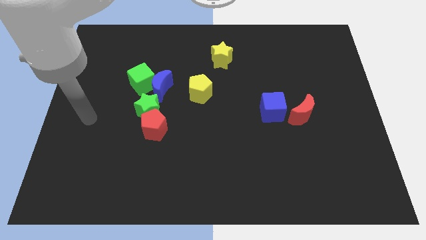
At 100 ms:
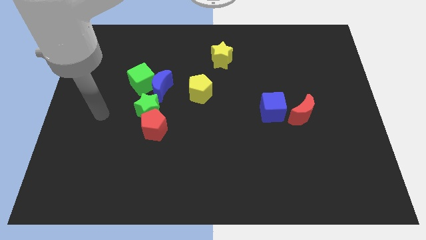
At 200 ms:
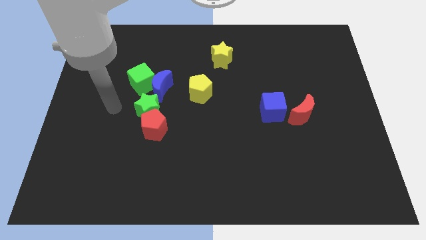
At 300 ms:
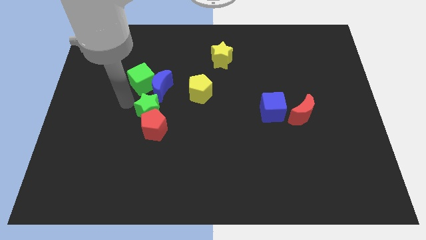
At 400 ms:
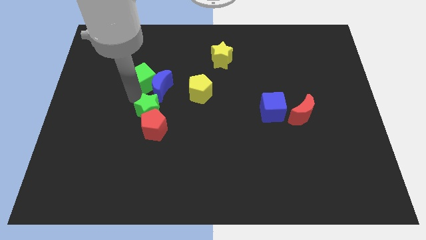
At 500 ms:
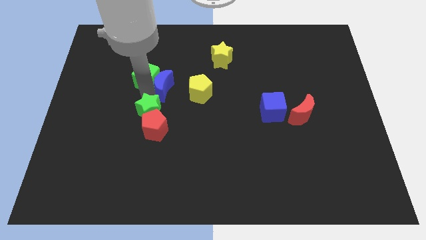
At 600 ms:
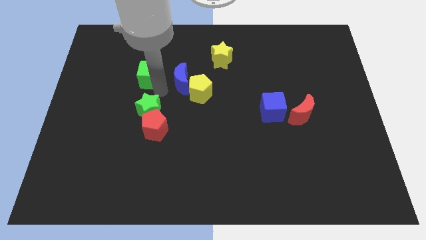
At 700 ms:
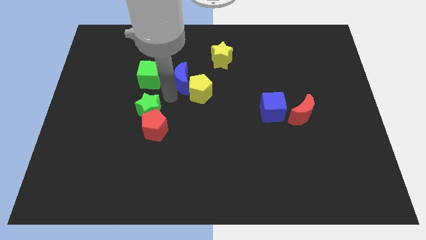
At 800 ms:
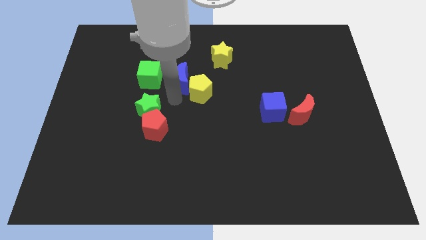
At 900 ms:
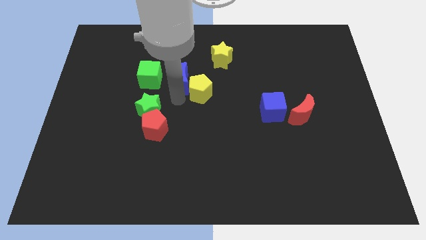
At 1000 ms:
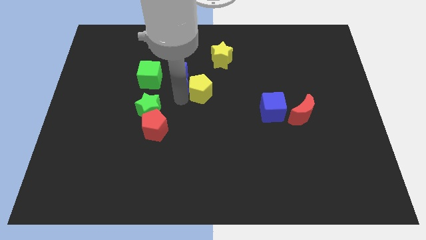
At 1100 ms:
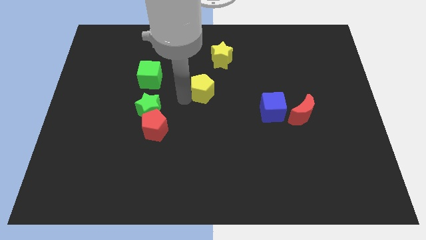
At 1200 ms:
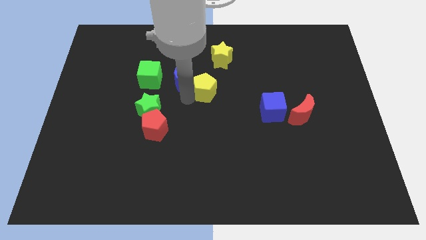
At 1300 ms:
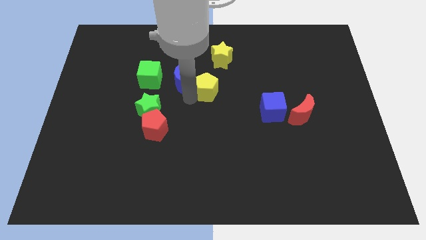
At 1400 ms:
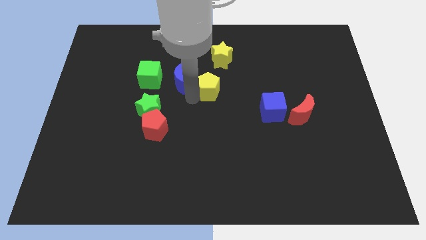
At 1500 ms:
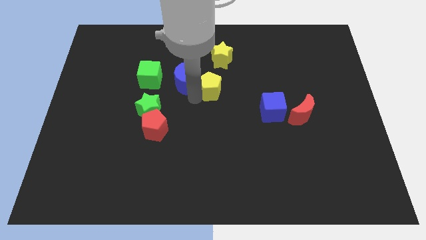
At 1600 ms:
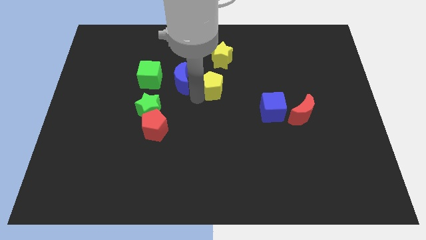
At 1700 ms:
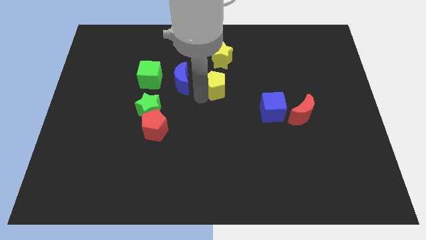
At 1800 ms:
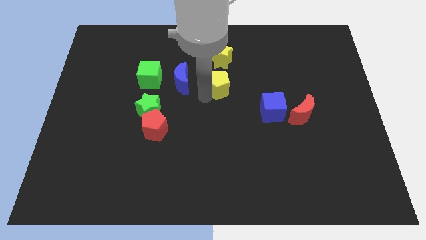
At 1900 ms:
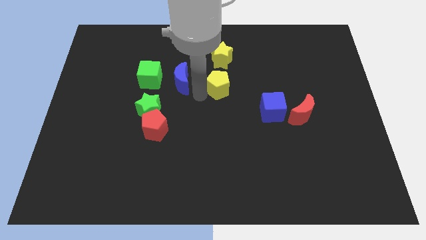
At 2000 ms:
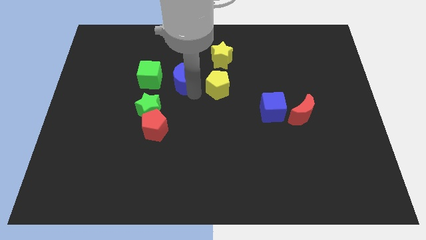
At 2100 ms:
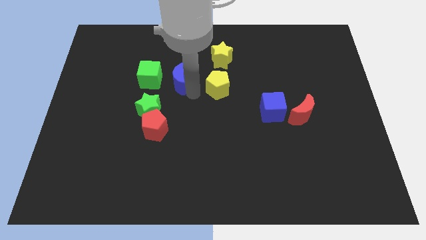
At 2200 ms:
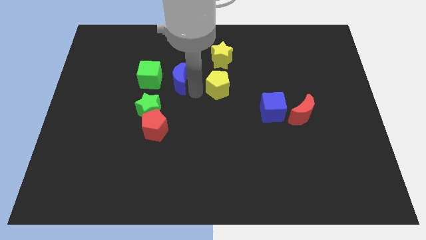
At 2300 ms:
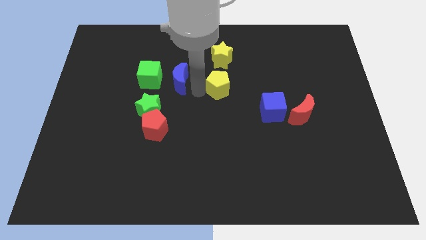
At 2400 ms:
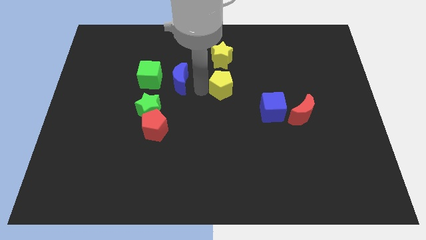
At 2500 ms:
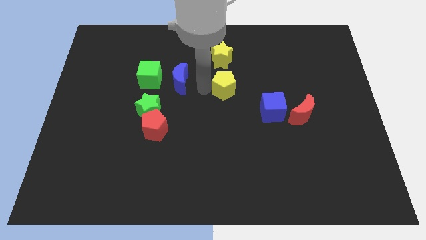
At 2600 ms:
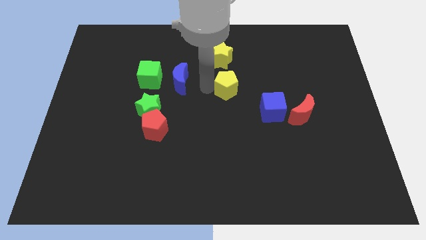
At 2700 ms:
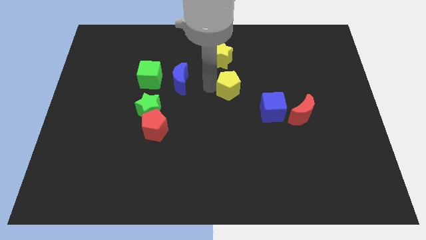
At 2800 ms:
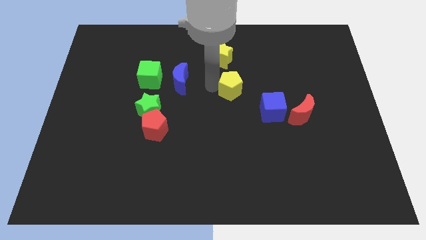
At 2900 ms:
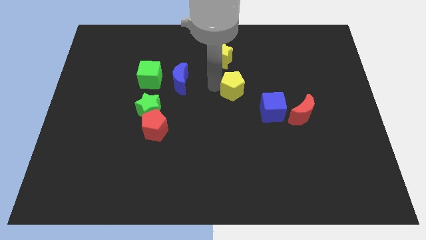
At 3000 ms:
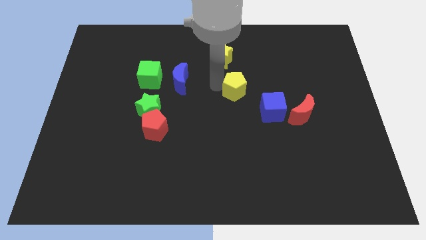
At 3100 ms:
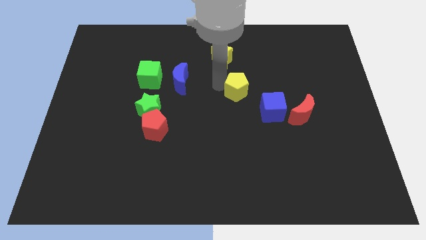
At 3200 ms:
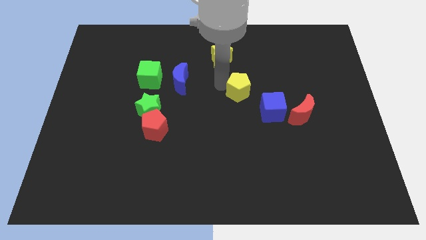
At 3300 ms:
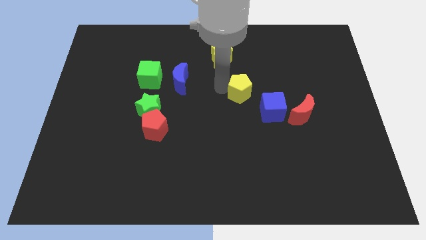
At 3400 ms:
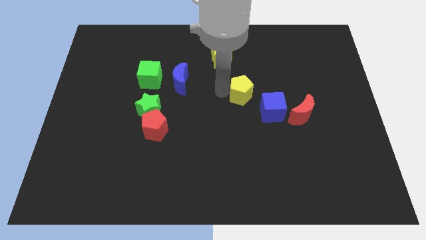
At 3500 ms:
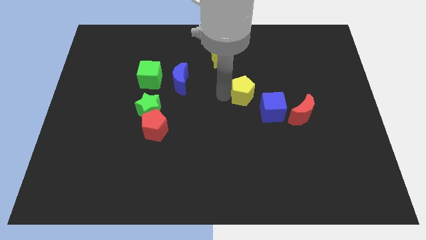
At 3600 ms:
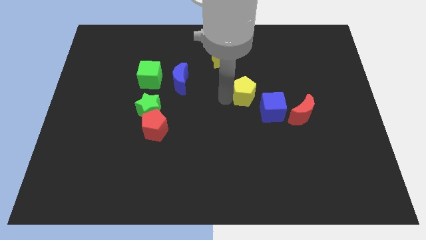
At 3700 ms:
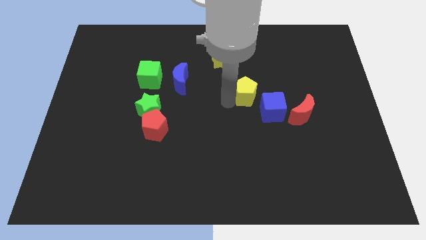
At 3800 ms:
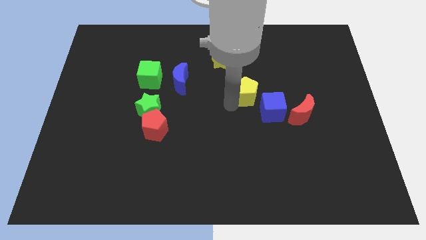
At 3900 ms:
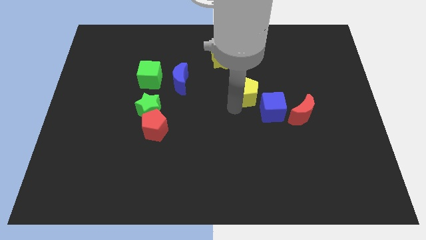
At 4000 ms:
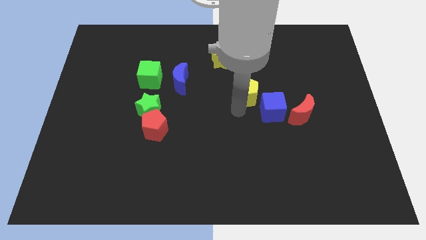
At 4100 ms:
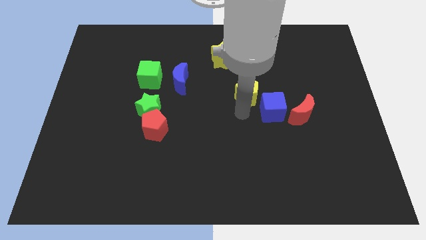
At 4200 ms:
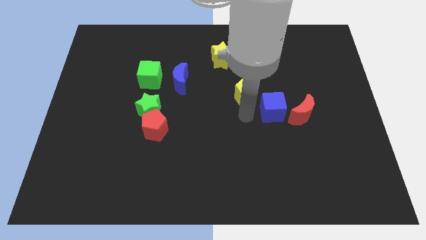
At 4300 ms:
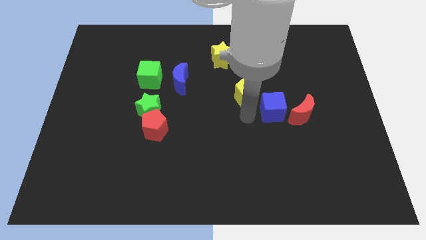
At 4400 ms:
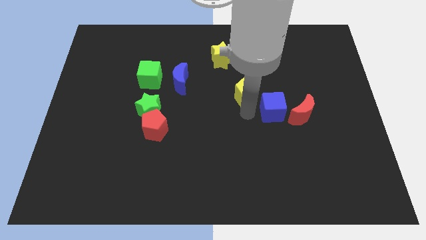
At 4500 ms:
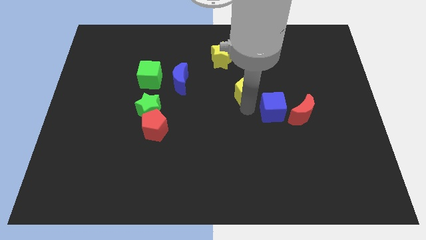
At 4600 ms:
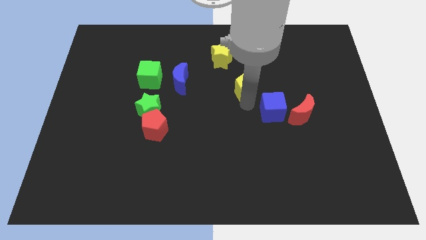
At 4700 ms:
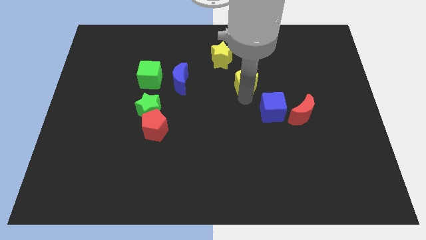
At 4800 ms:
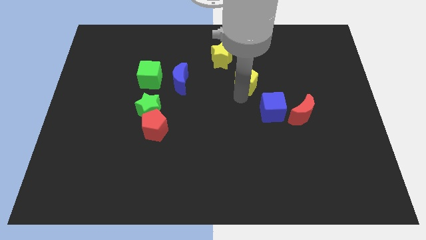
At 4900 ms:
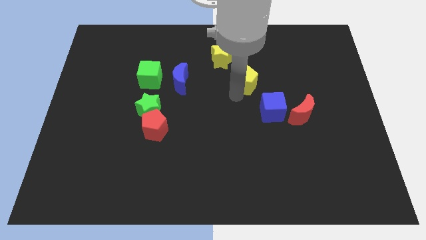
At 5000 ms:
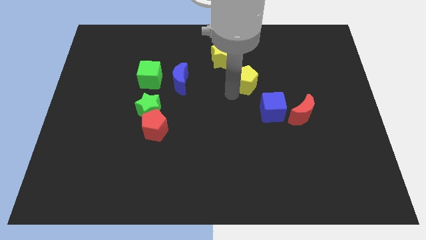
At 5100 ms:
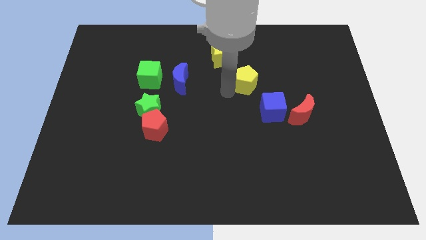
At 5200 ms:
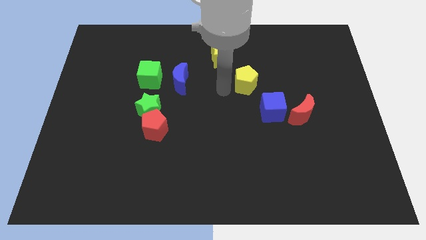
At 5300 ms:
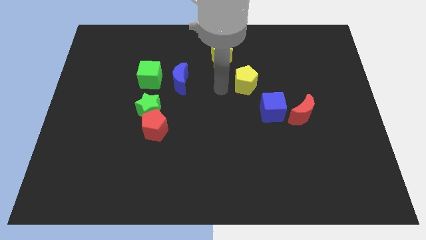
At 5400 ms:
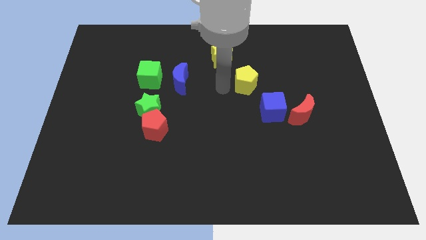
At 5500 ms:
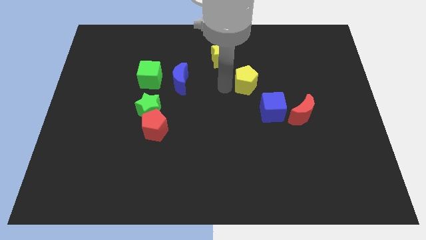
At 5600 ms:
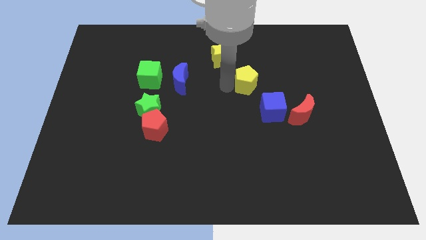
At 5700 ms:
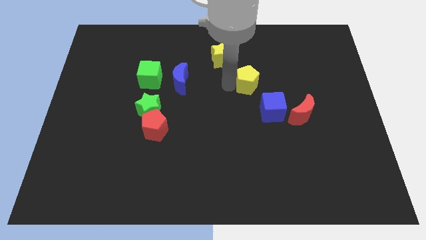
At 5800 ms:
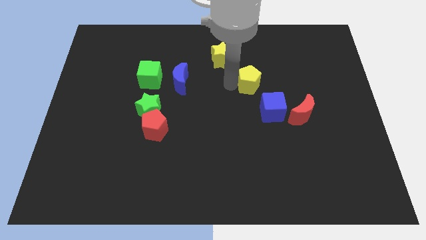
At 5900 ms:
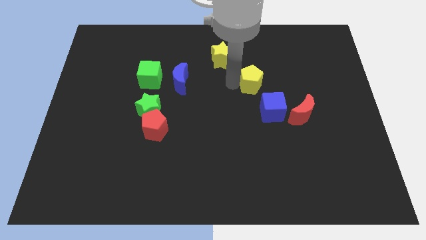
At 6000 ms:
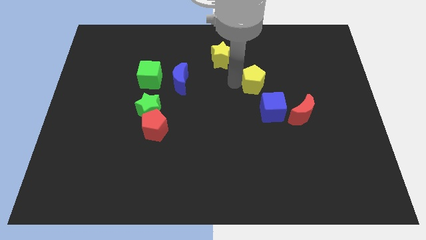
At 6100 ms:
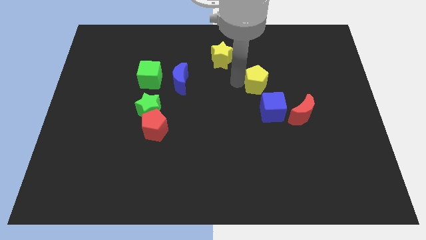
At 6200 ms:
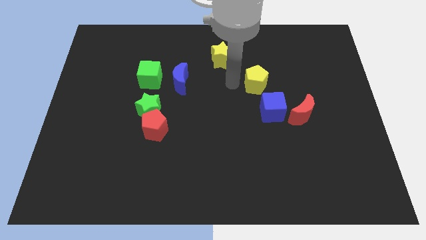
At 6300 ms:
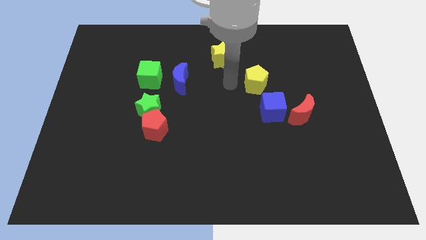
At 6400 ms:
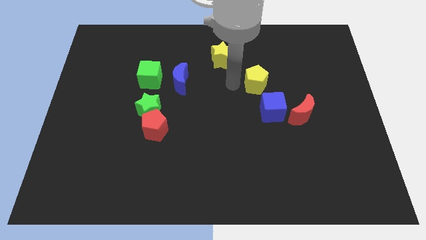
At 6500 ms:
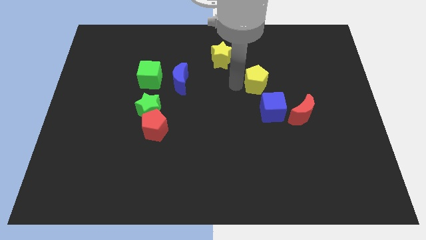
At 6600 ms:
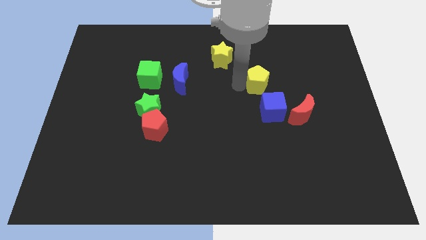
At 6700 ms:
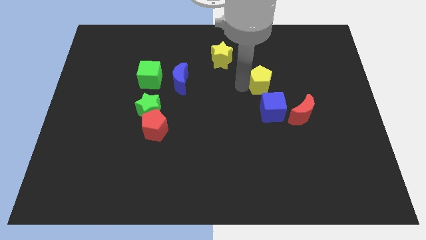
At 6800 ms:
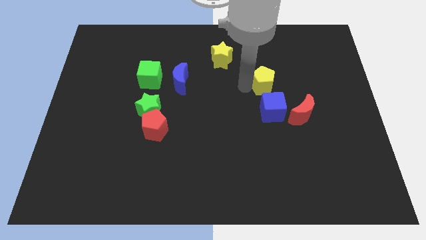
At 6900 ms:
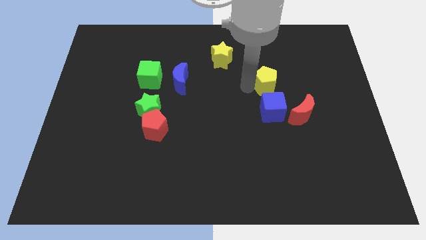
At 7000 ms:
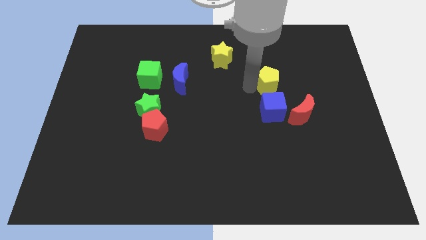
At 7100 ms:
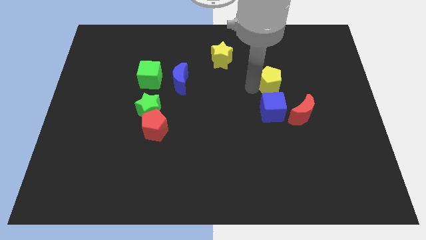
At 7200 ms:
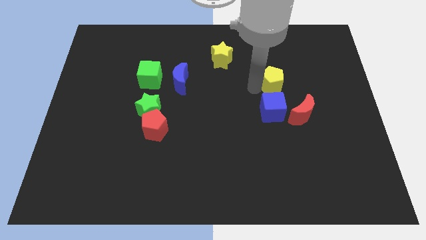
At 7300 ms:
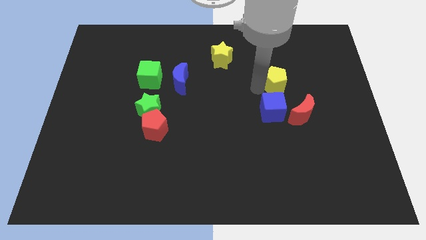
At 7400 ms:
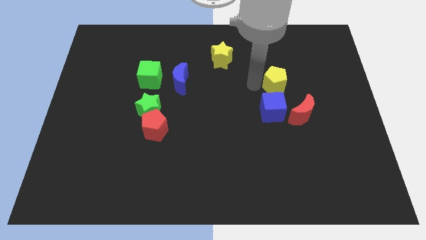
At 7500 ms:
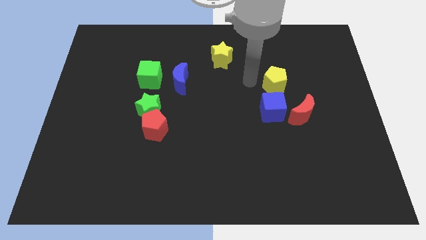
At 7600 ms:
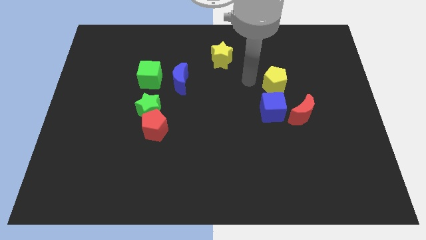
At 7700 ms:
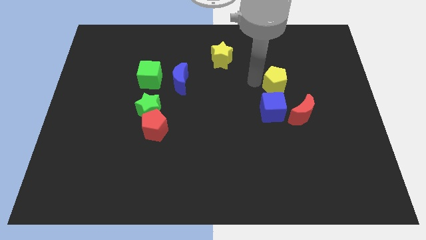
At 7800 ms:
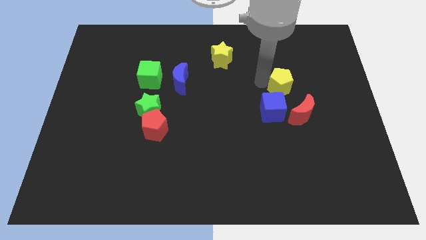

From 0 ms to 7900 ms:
move the yellow pentagon right
